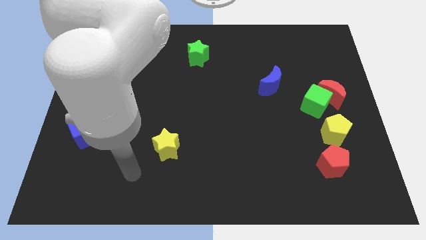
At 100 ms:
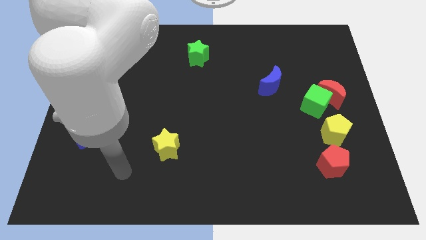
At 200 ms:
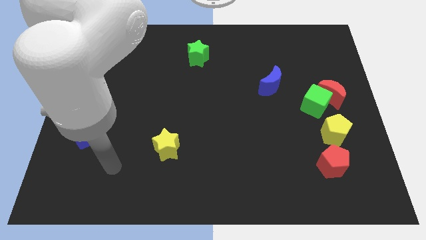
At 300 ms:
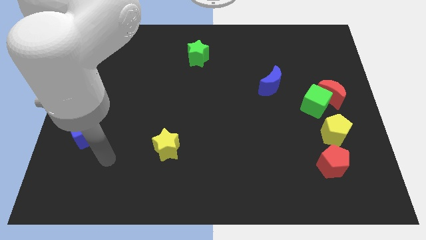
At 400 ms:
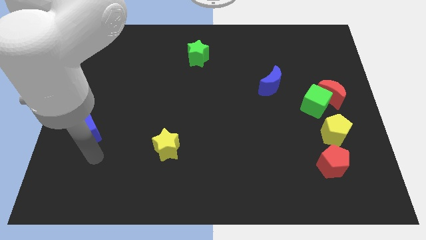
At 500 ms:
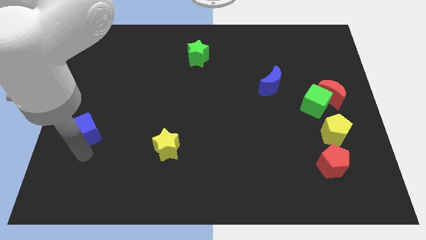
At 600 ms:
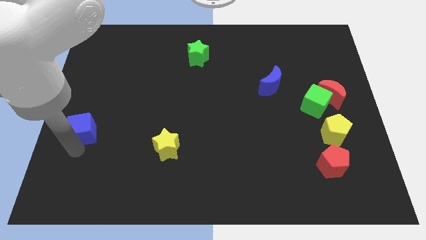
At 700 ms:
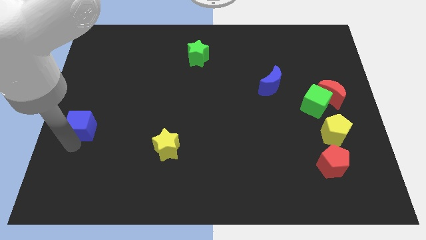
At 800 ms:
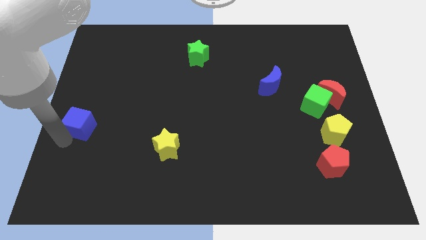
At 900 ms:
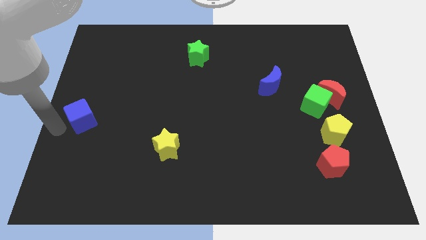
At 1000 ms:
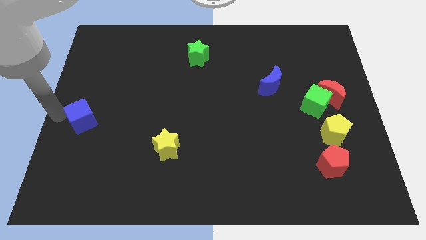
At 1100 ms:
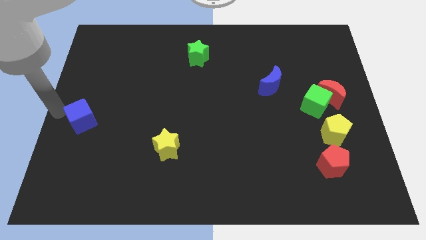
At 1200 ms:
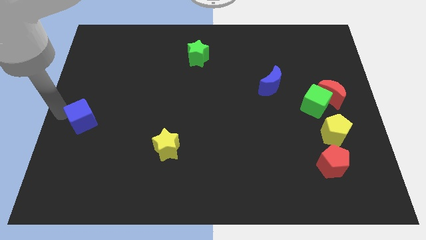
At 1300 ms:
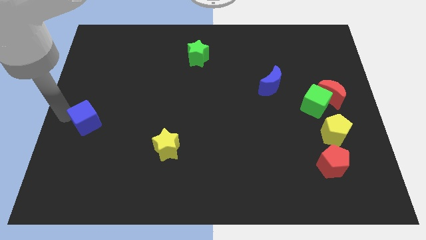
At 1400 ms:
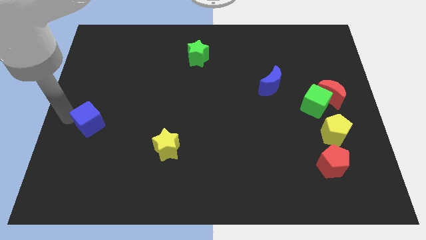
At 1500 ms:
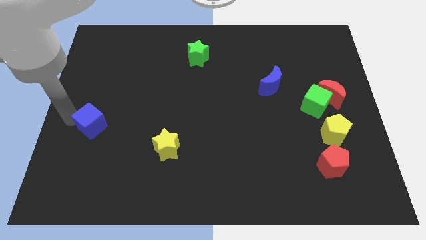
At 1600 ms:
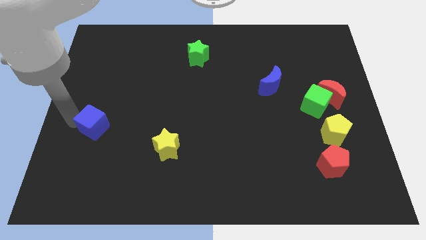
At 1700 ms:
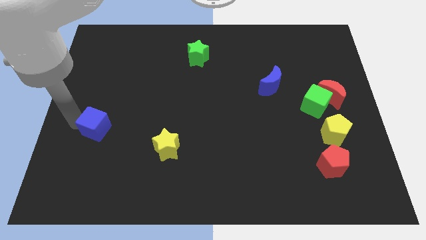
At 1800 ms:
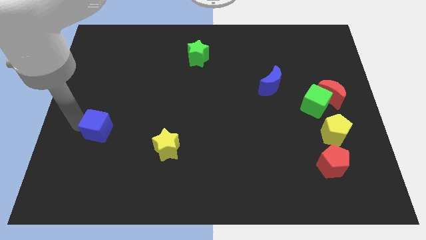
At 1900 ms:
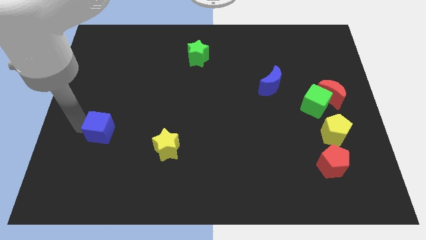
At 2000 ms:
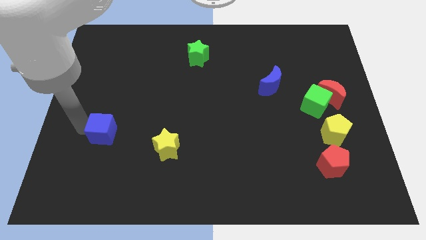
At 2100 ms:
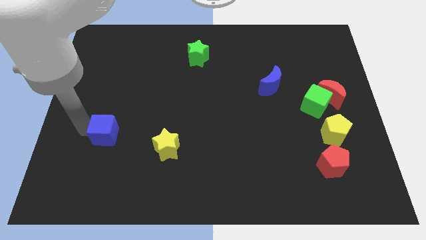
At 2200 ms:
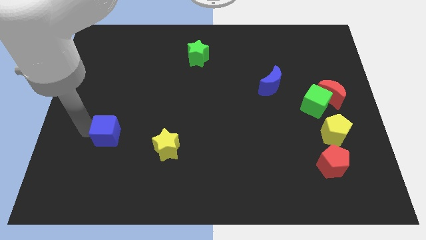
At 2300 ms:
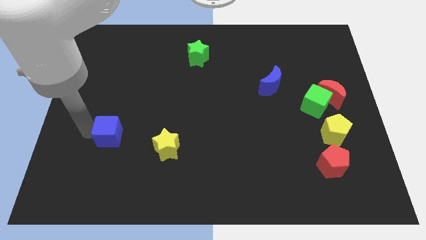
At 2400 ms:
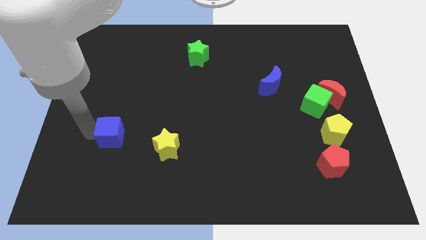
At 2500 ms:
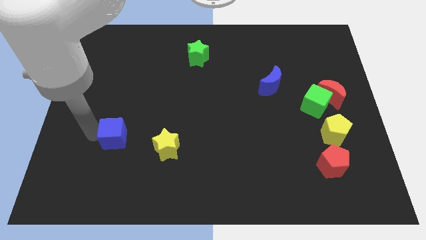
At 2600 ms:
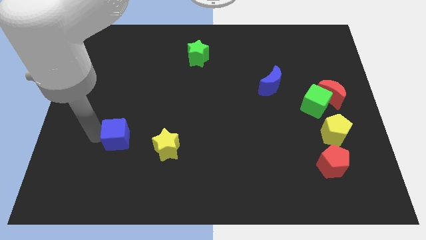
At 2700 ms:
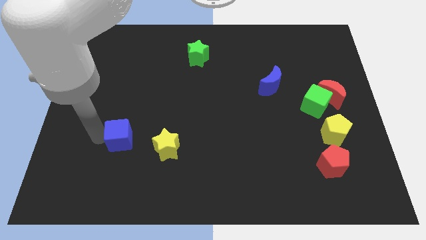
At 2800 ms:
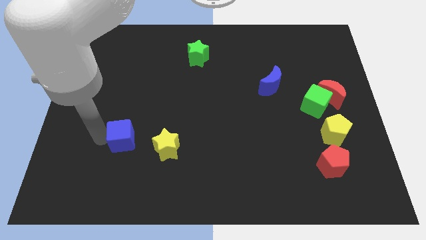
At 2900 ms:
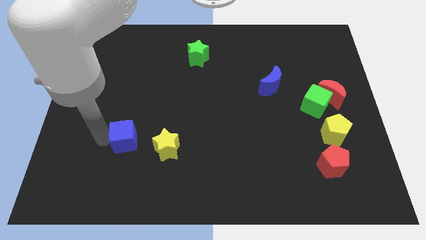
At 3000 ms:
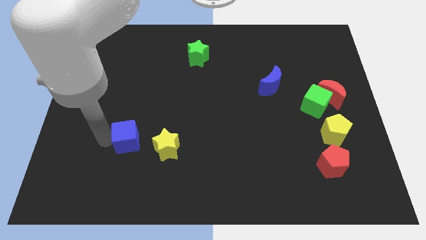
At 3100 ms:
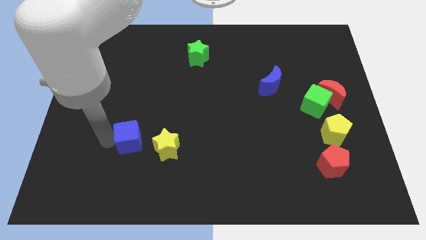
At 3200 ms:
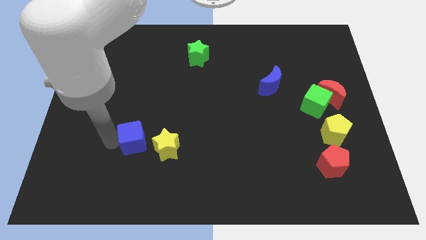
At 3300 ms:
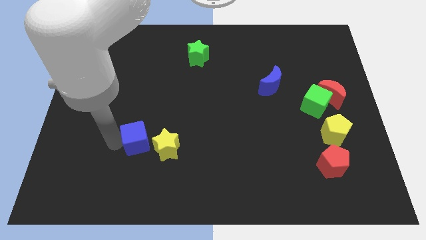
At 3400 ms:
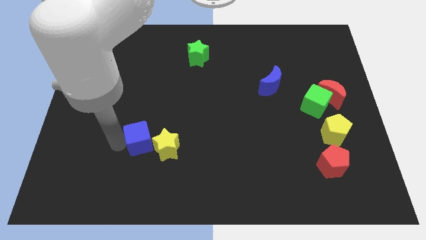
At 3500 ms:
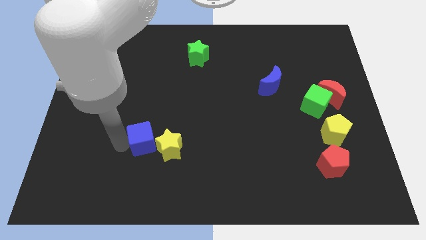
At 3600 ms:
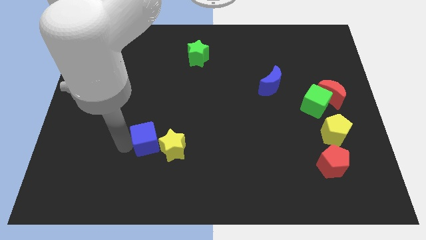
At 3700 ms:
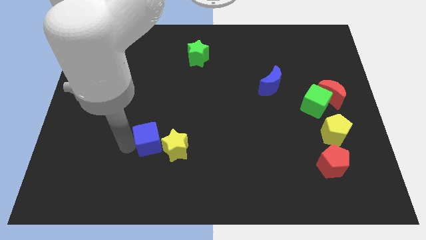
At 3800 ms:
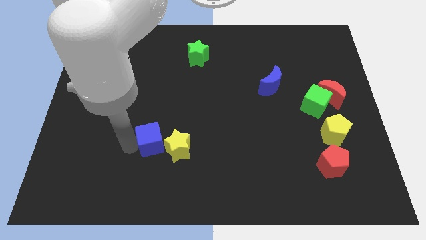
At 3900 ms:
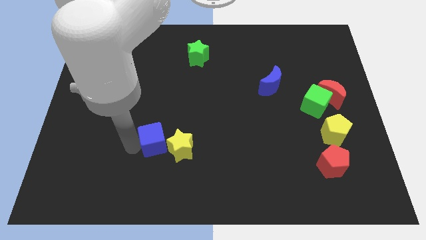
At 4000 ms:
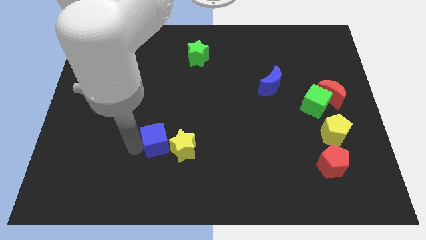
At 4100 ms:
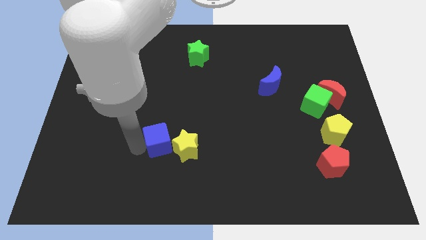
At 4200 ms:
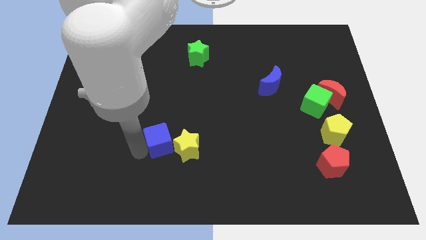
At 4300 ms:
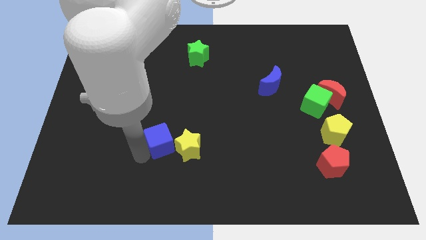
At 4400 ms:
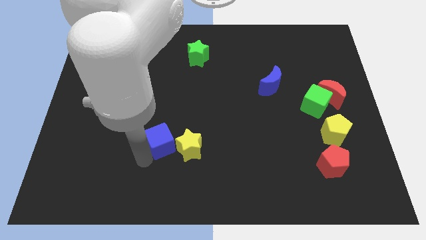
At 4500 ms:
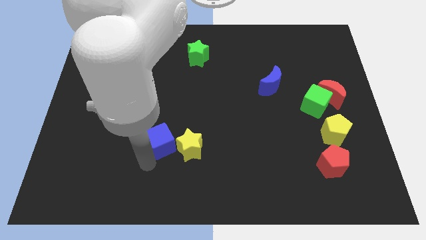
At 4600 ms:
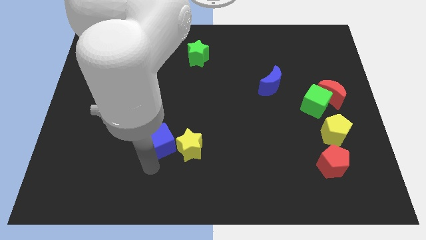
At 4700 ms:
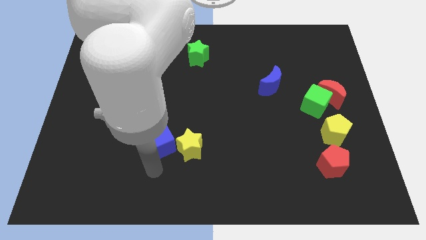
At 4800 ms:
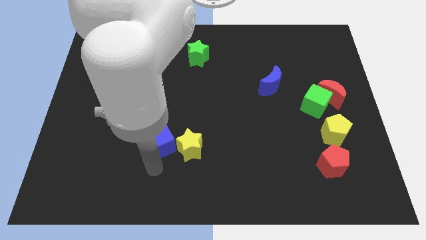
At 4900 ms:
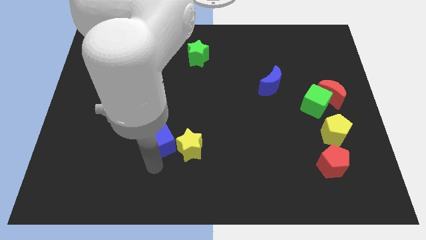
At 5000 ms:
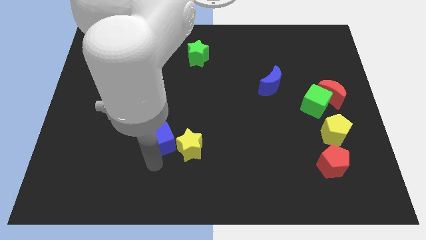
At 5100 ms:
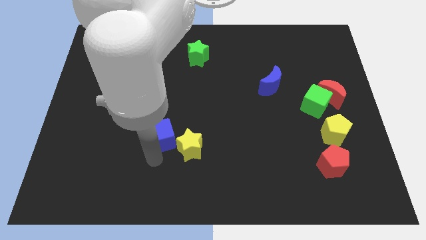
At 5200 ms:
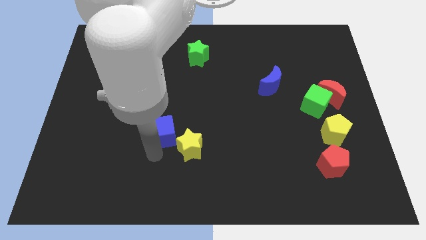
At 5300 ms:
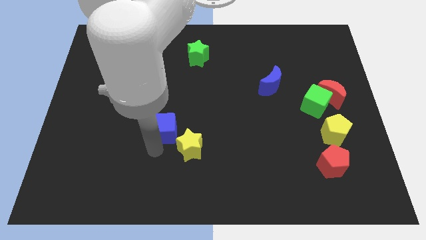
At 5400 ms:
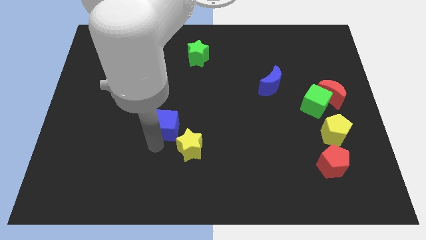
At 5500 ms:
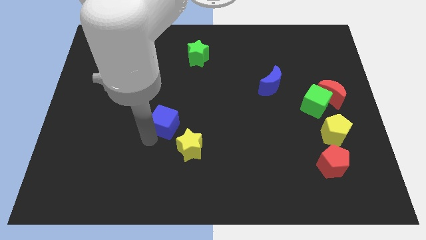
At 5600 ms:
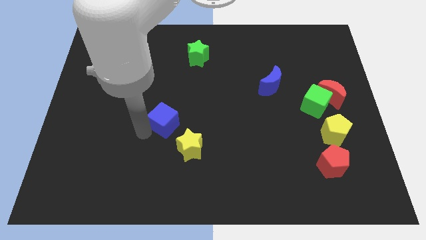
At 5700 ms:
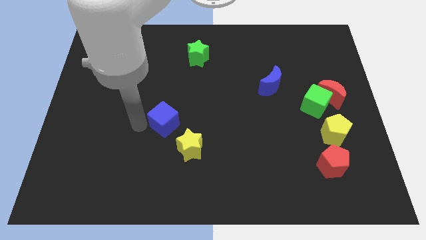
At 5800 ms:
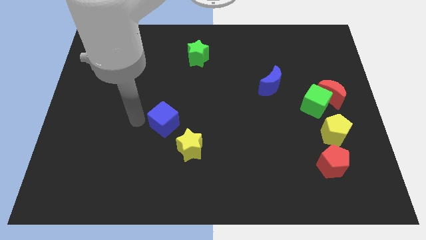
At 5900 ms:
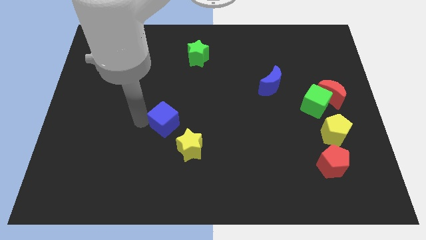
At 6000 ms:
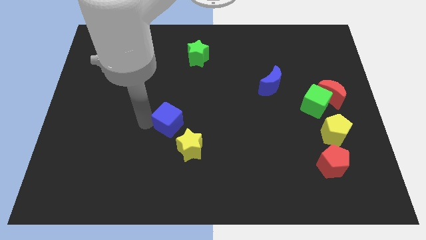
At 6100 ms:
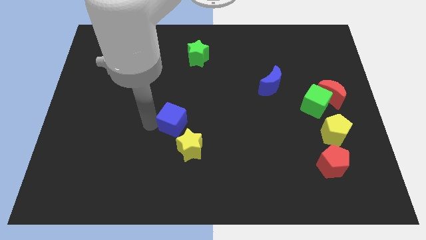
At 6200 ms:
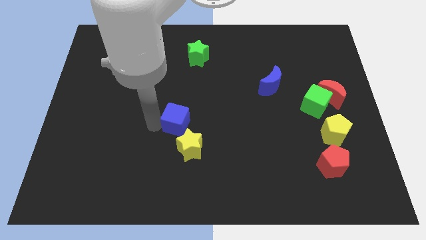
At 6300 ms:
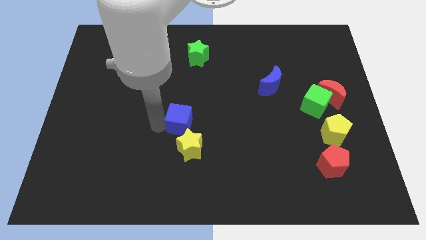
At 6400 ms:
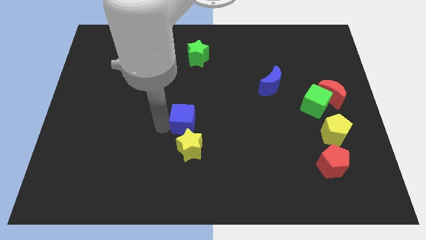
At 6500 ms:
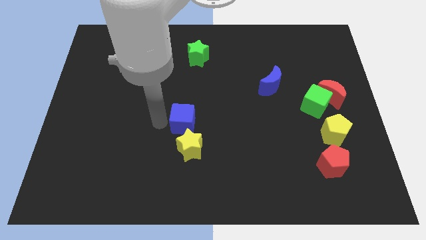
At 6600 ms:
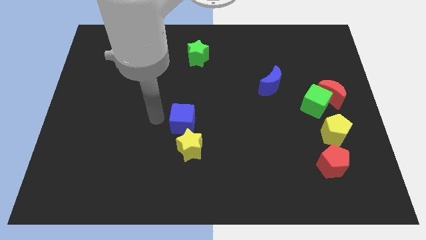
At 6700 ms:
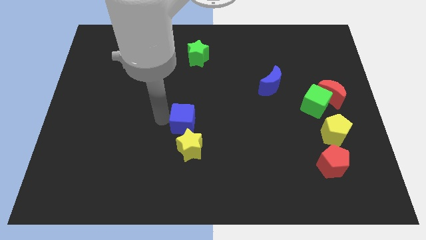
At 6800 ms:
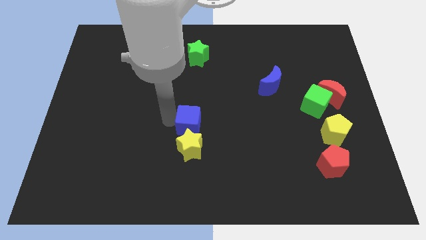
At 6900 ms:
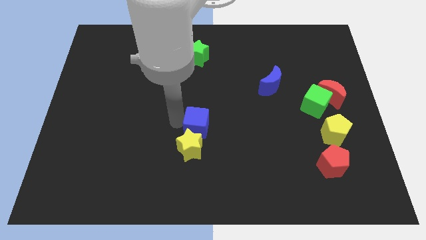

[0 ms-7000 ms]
slide the blue cube to the top right of the yellow star
